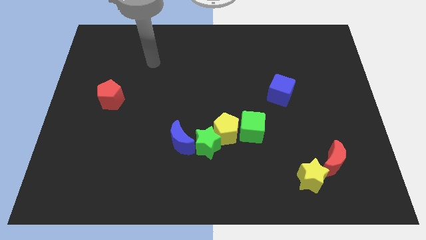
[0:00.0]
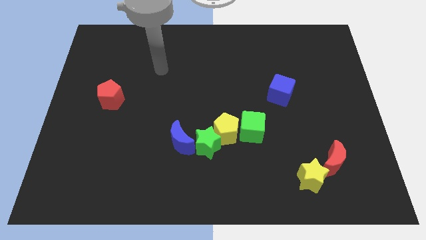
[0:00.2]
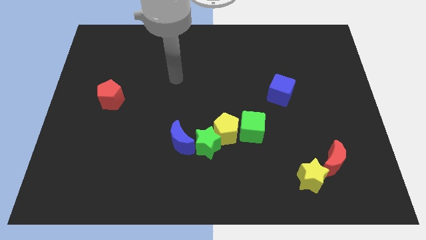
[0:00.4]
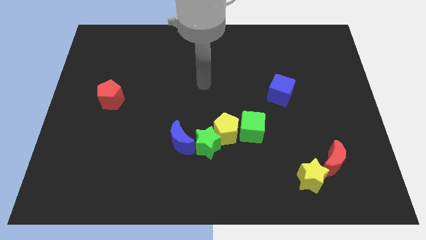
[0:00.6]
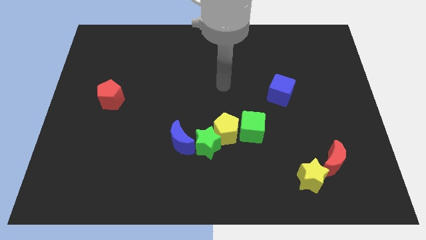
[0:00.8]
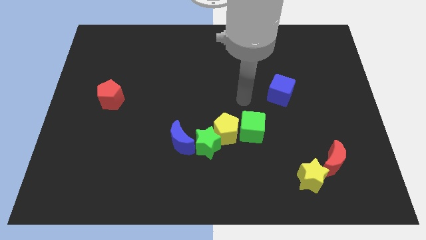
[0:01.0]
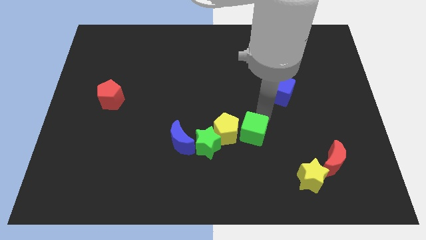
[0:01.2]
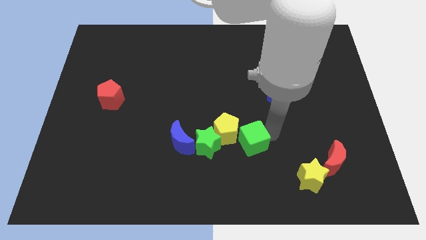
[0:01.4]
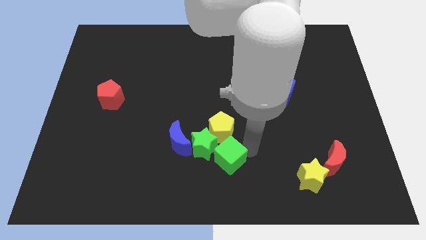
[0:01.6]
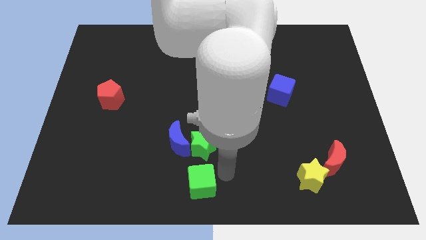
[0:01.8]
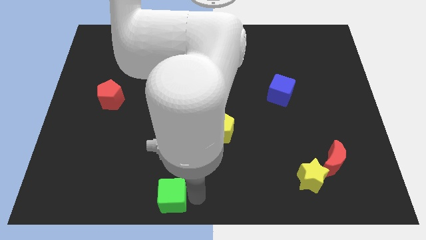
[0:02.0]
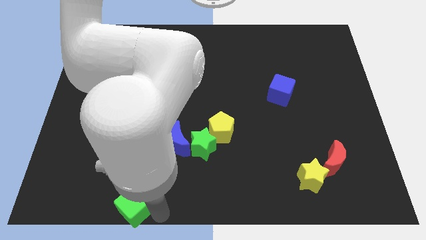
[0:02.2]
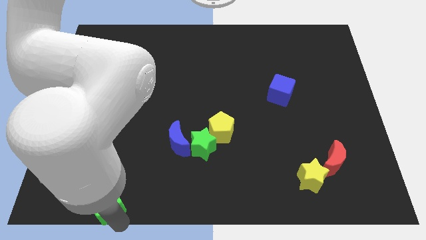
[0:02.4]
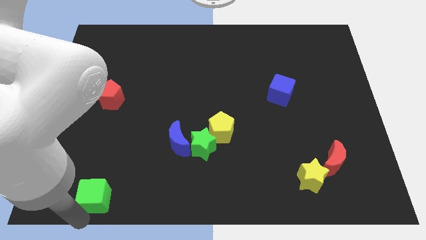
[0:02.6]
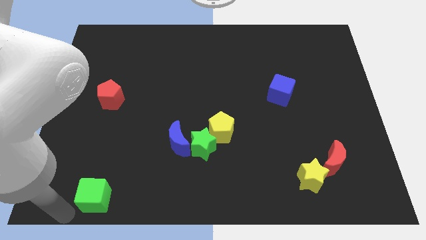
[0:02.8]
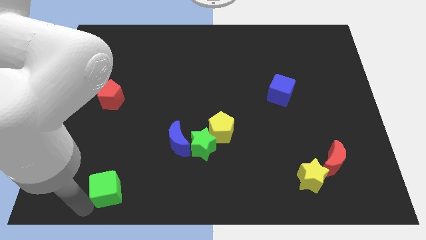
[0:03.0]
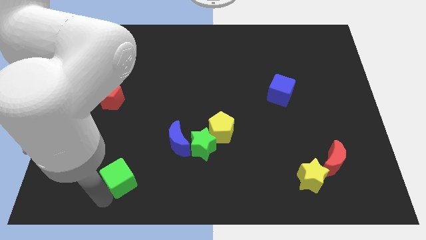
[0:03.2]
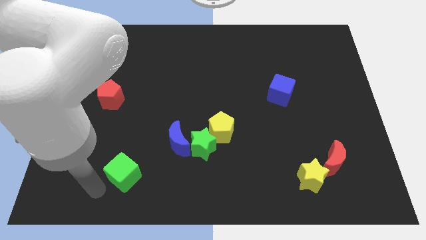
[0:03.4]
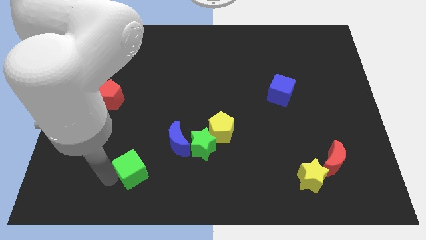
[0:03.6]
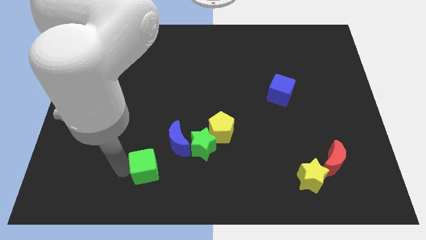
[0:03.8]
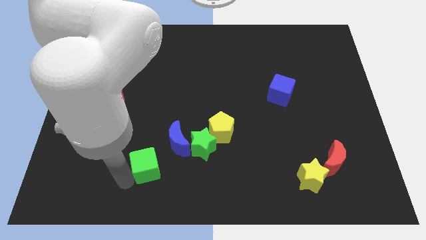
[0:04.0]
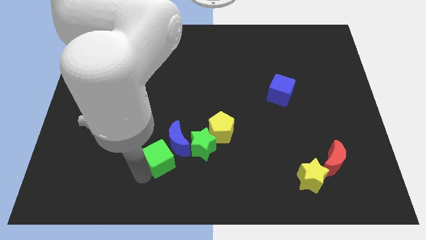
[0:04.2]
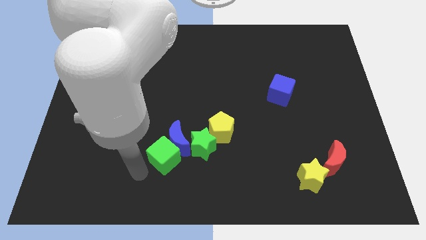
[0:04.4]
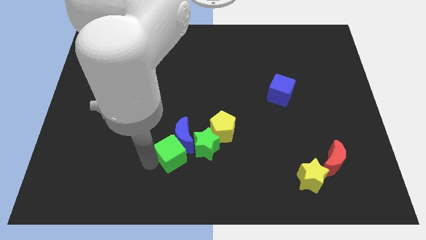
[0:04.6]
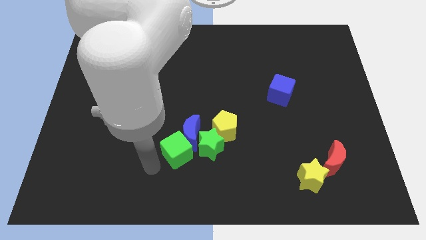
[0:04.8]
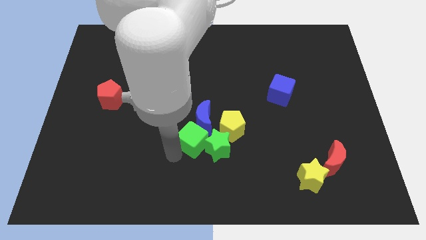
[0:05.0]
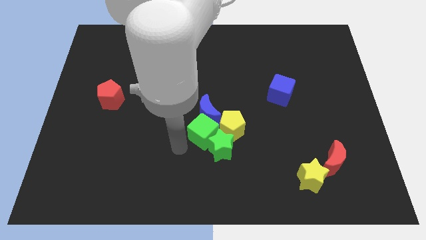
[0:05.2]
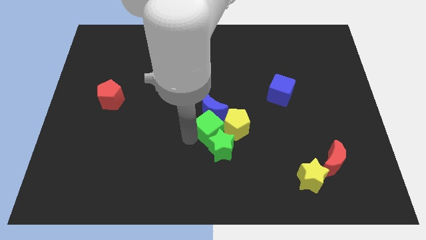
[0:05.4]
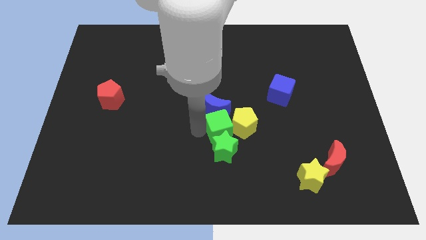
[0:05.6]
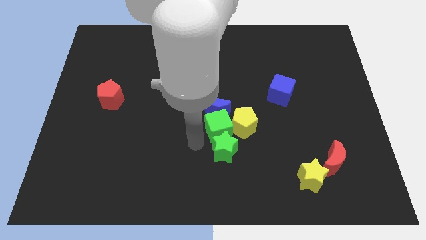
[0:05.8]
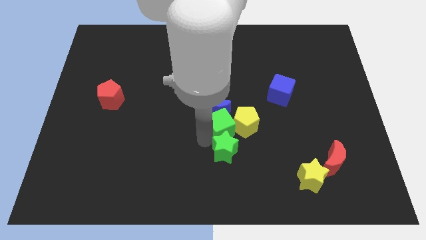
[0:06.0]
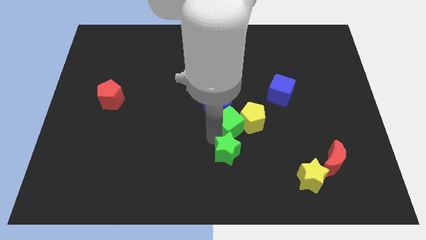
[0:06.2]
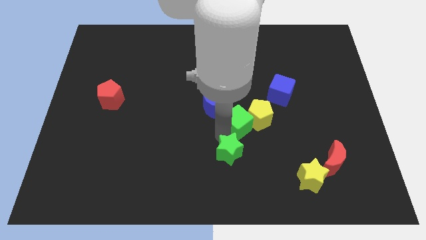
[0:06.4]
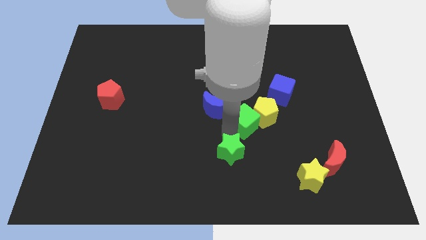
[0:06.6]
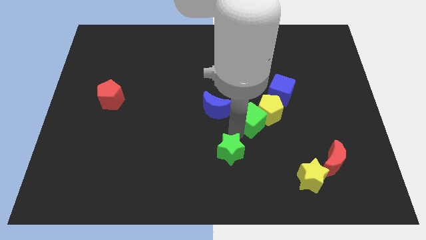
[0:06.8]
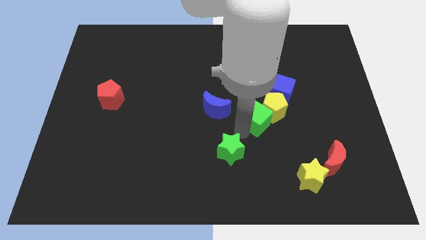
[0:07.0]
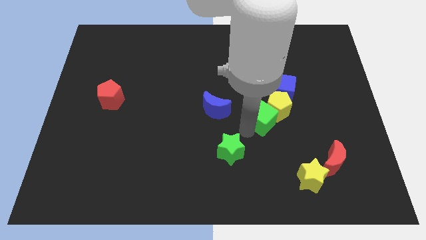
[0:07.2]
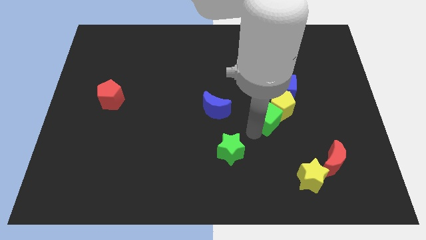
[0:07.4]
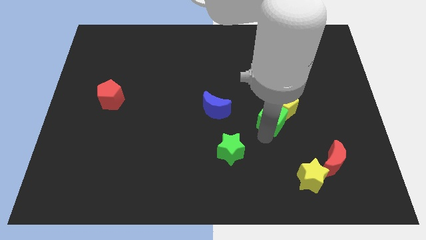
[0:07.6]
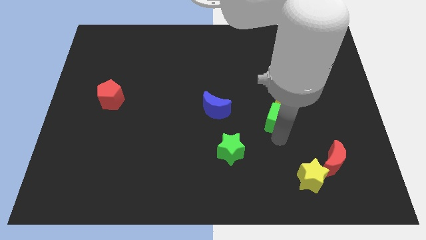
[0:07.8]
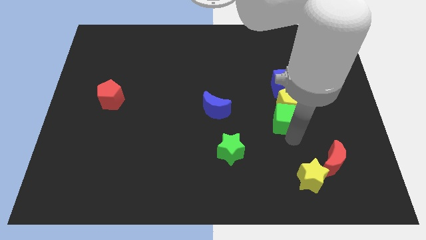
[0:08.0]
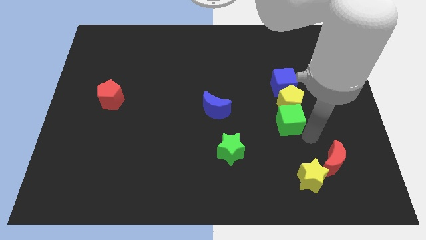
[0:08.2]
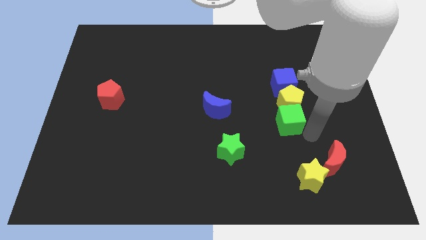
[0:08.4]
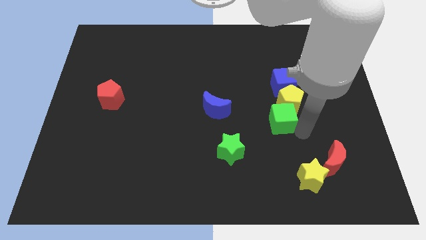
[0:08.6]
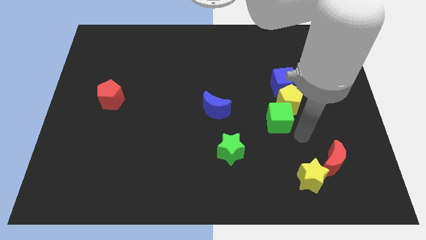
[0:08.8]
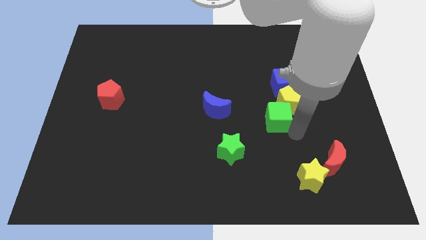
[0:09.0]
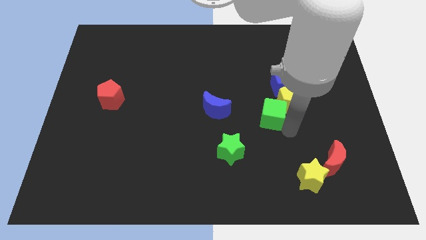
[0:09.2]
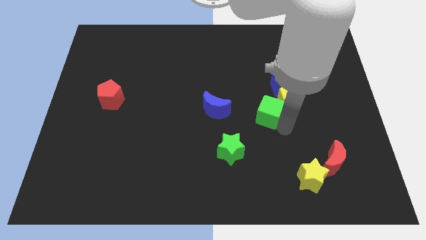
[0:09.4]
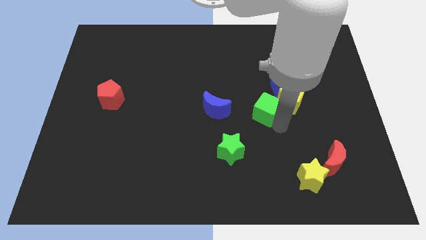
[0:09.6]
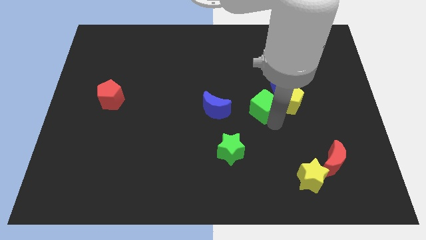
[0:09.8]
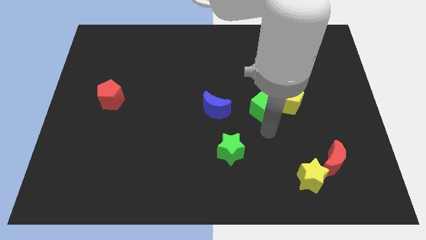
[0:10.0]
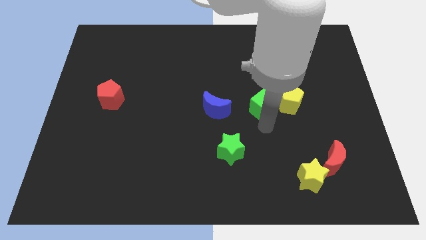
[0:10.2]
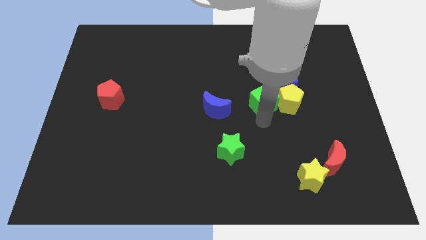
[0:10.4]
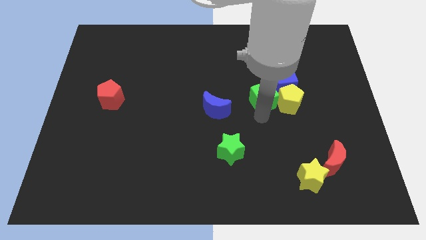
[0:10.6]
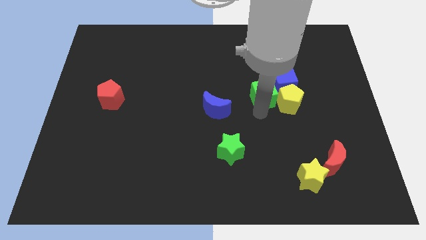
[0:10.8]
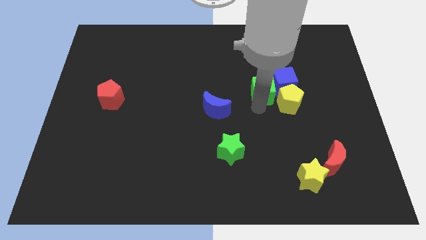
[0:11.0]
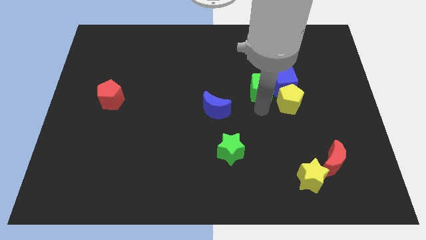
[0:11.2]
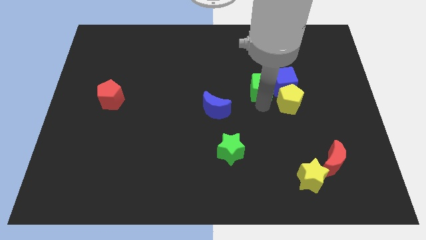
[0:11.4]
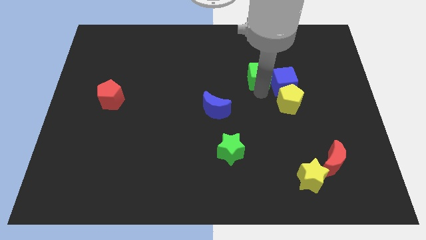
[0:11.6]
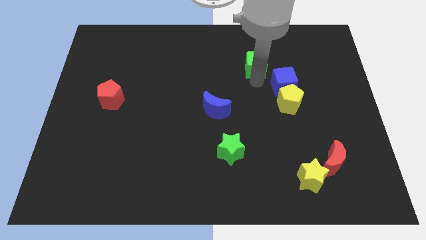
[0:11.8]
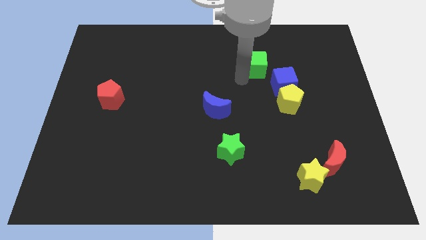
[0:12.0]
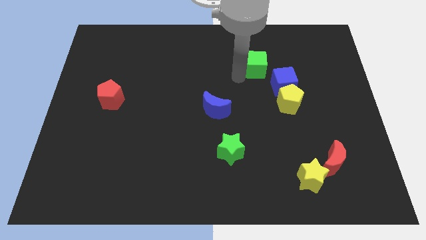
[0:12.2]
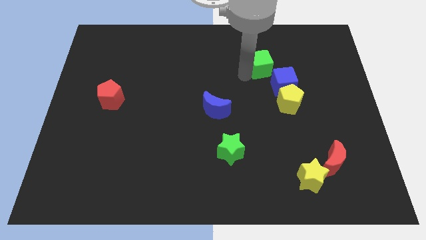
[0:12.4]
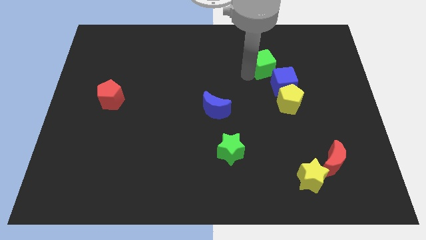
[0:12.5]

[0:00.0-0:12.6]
put the green cube to the top side of the blue cube
